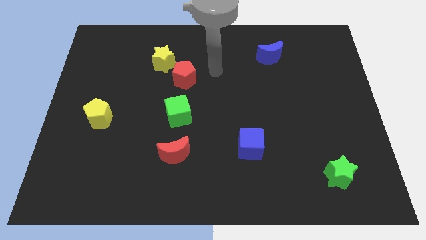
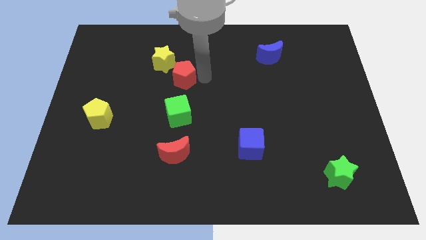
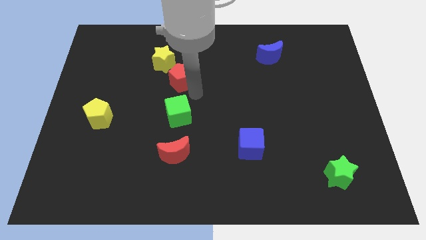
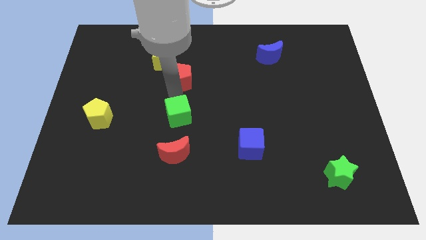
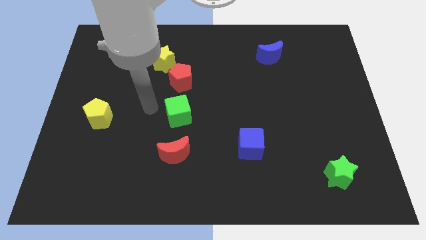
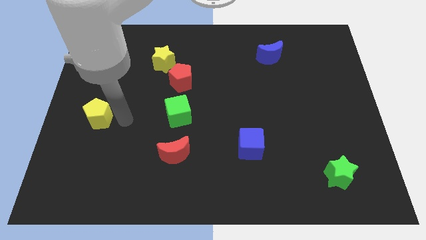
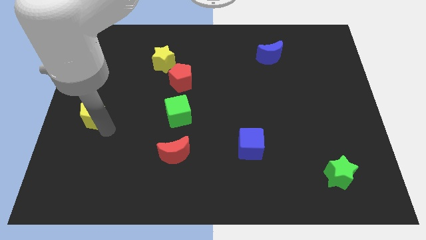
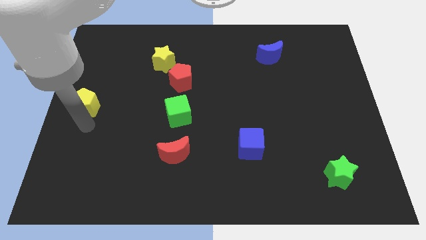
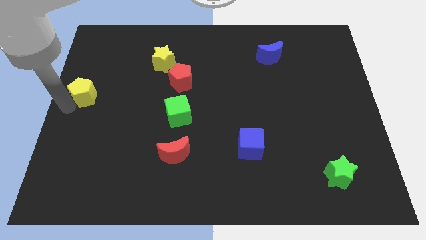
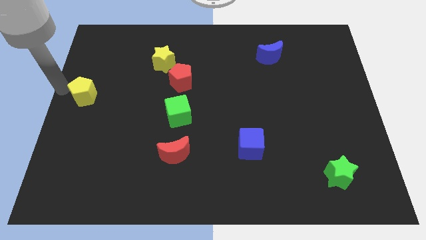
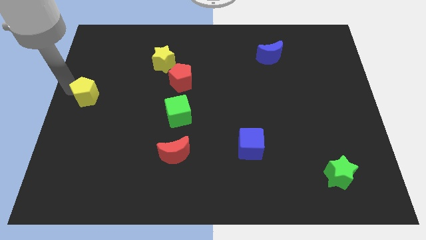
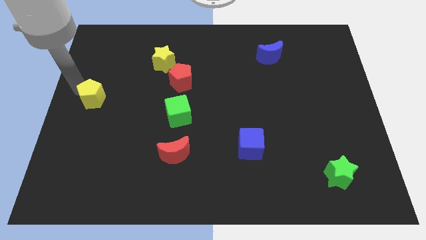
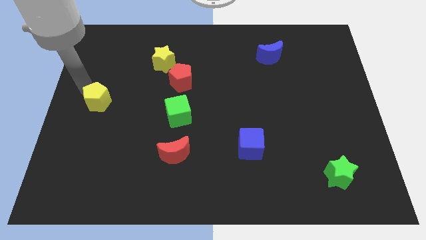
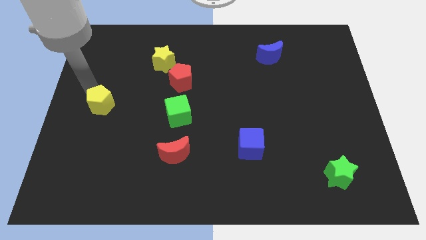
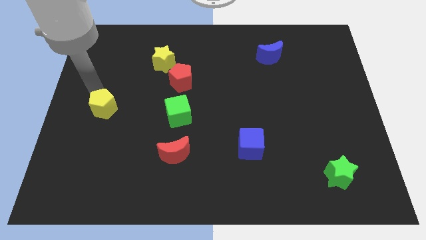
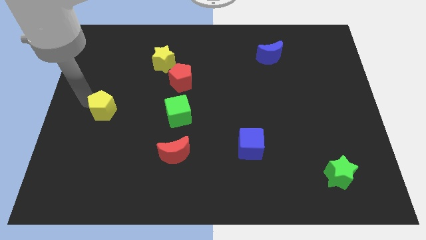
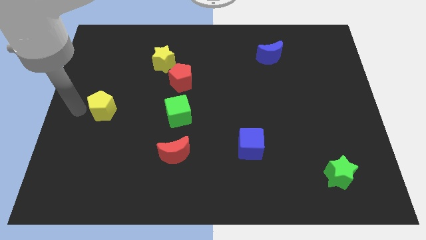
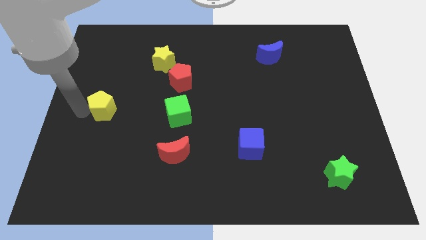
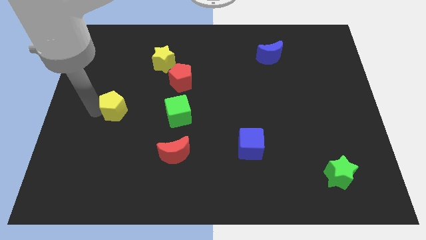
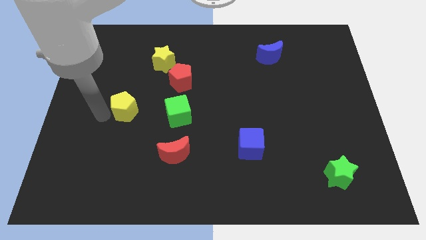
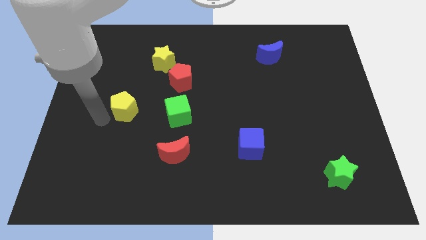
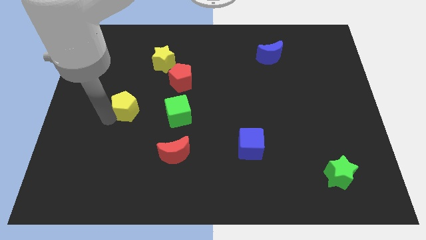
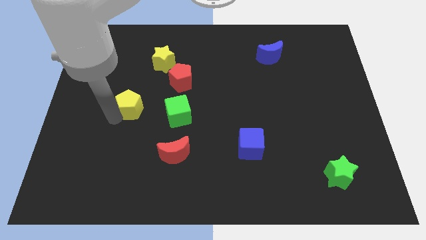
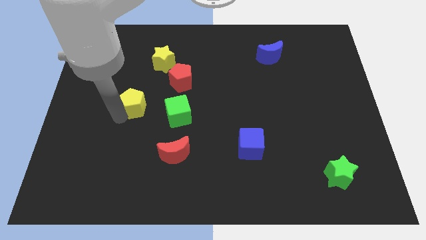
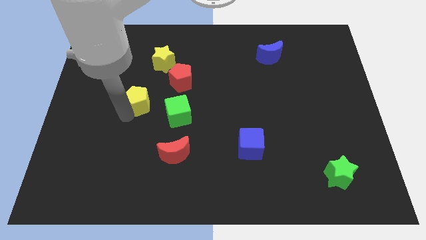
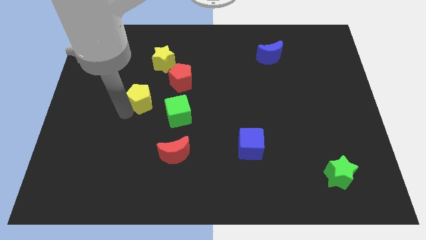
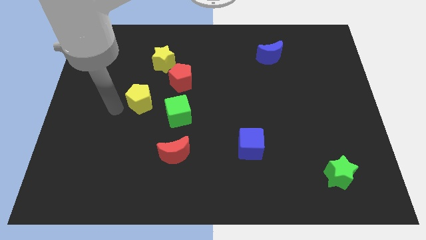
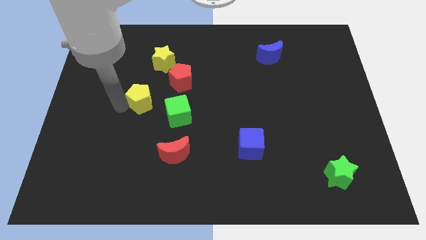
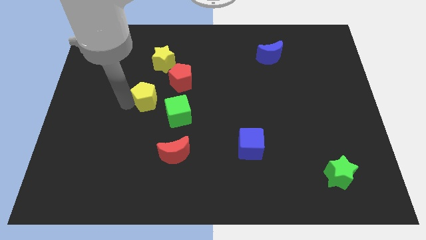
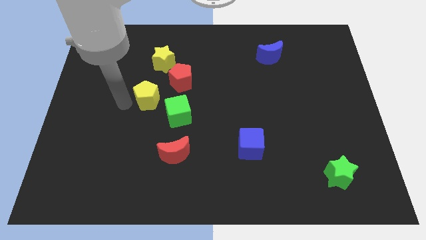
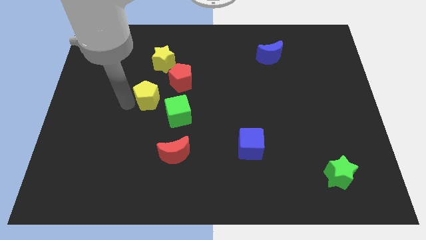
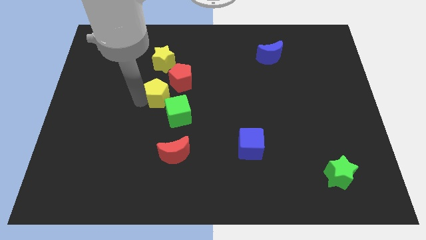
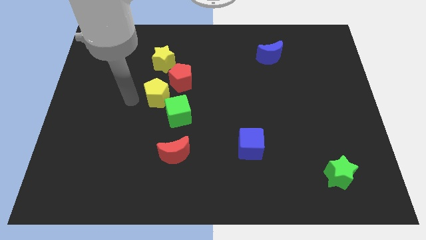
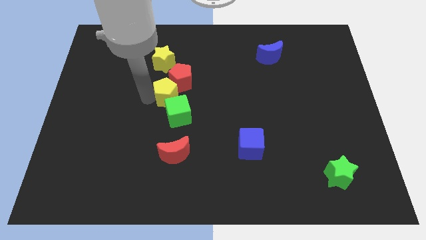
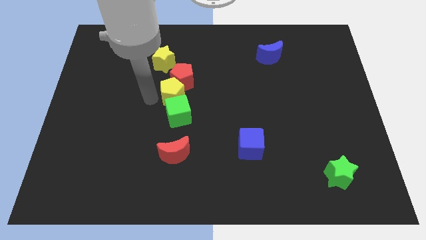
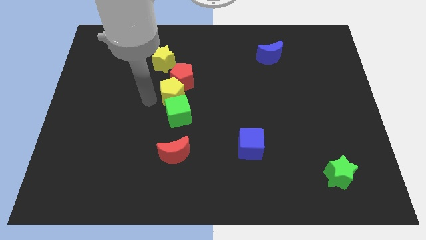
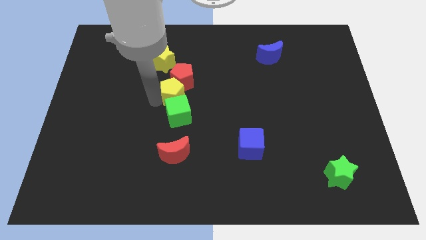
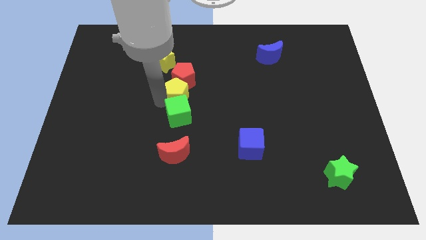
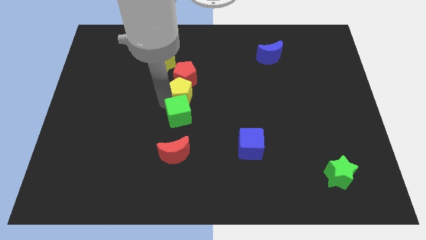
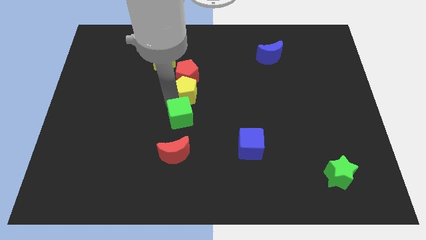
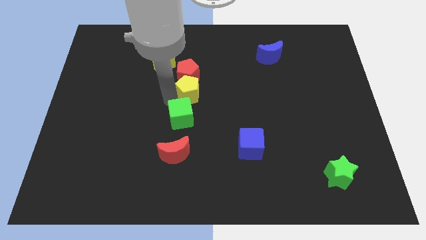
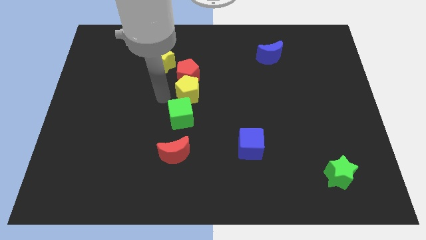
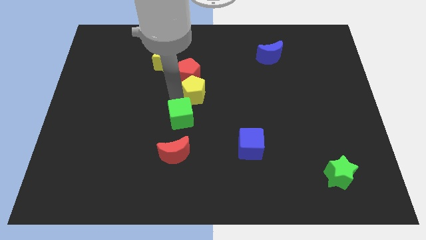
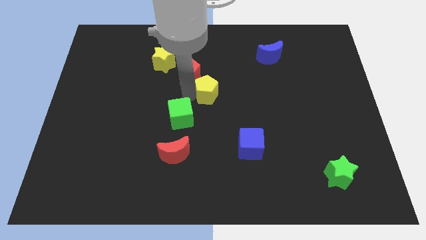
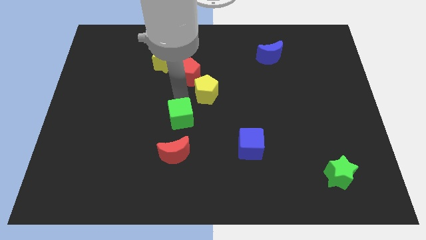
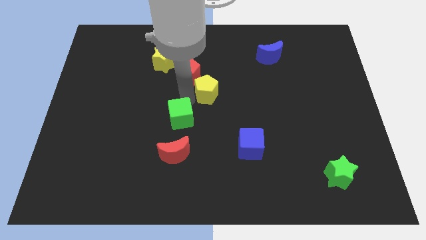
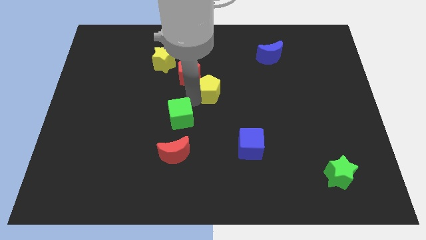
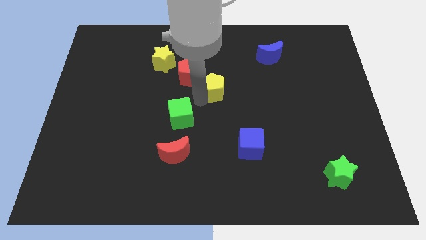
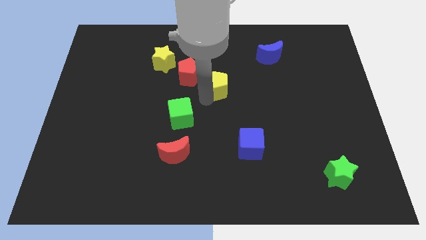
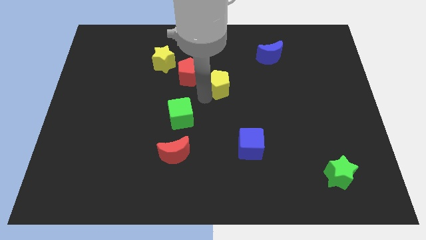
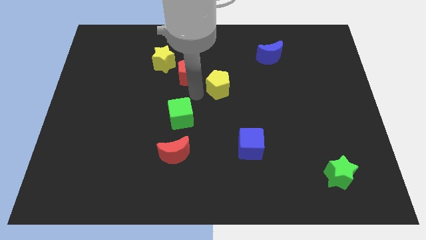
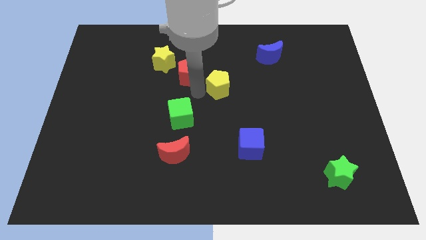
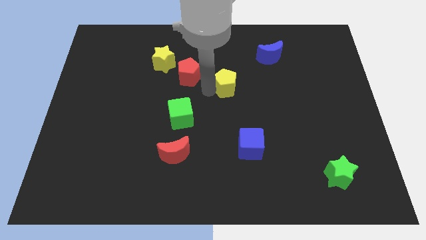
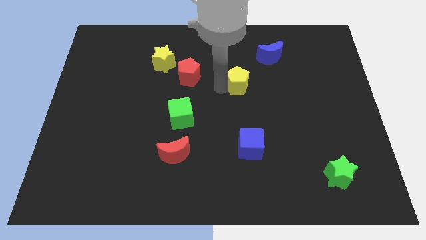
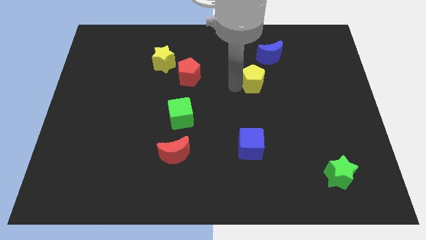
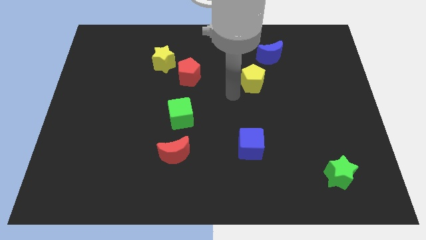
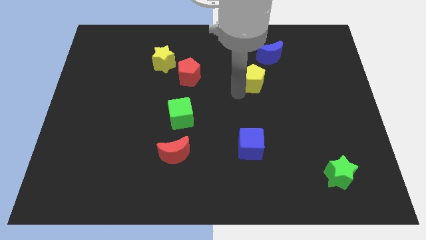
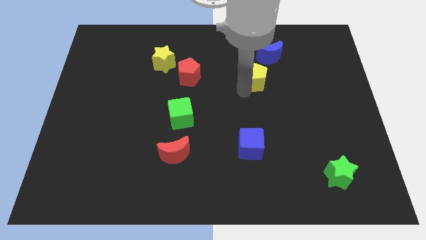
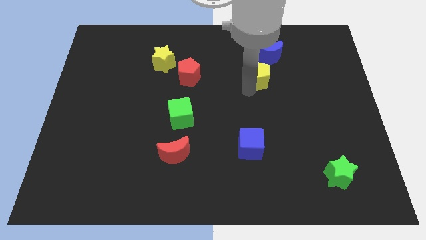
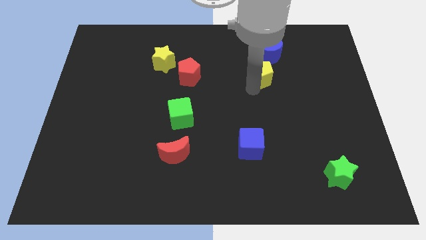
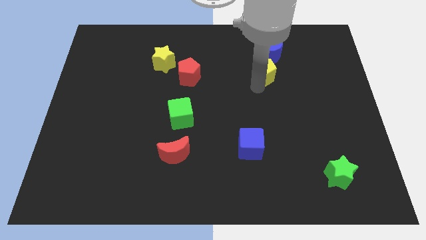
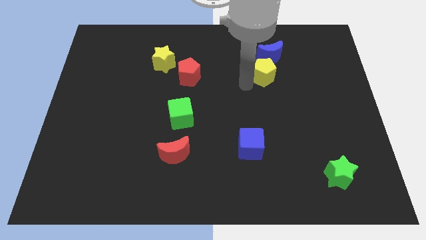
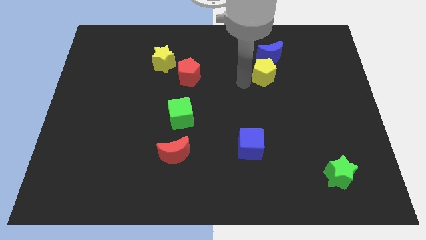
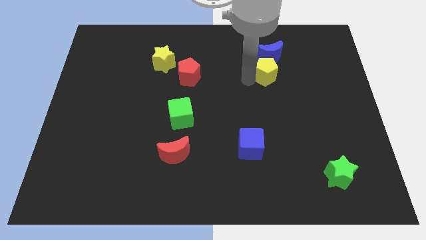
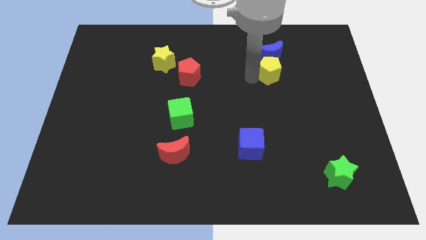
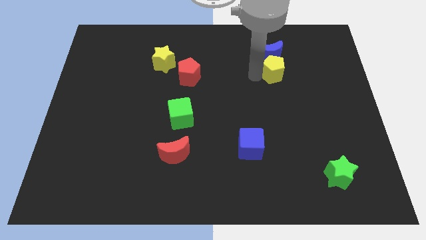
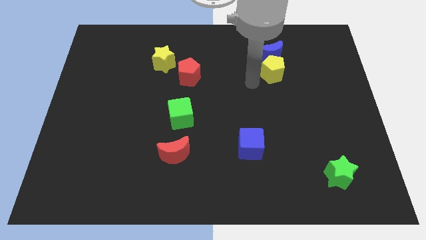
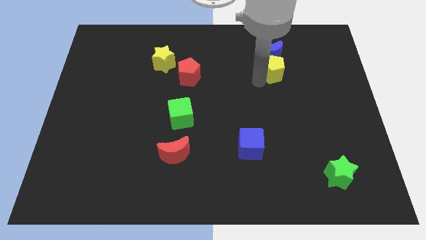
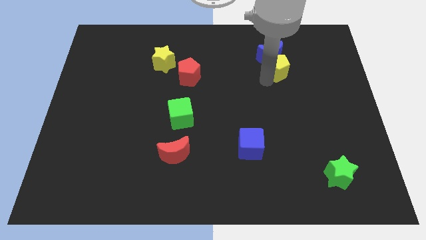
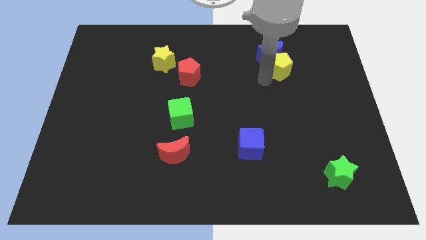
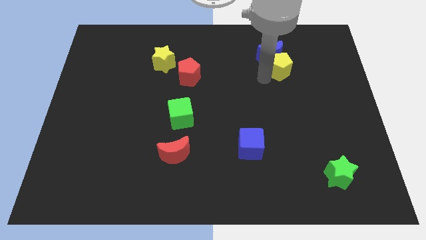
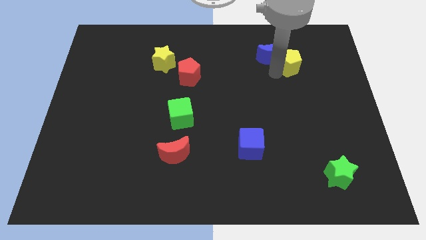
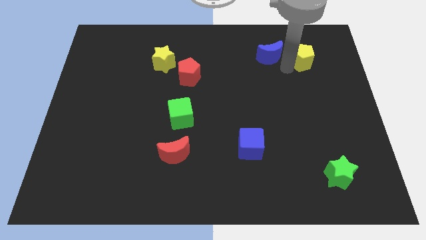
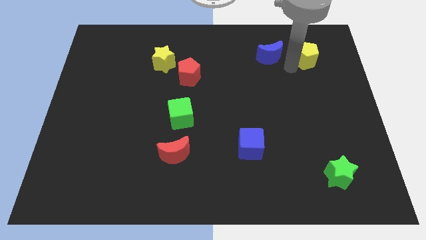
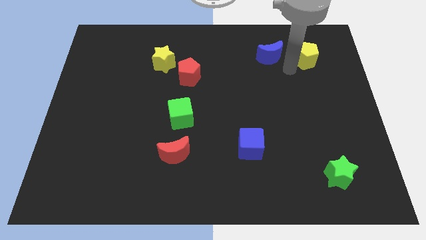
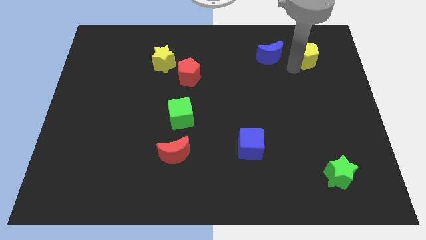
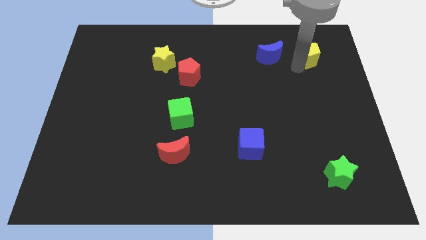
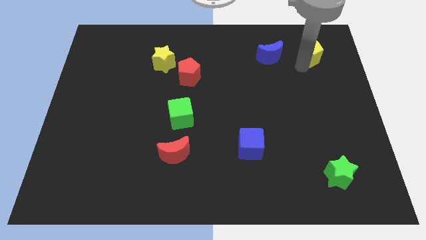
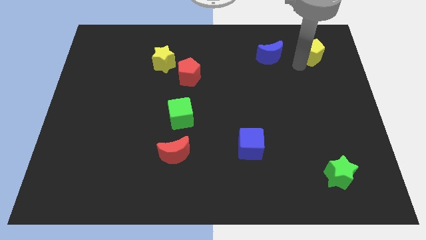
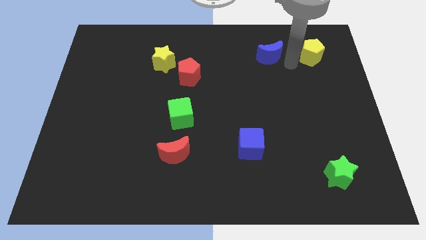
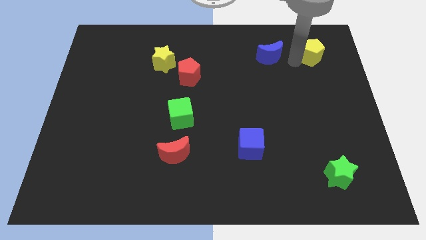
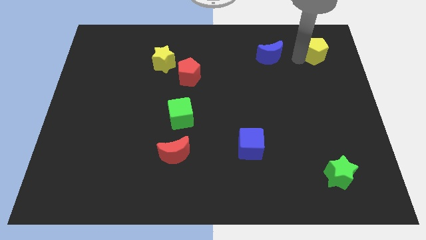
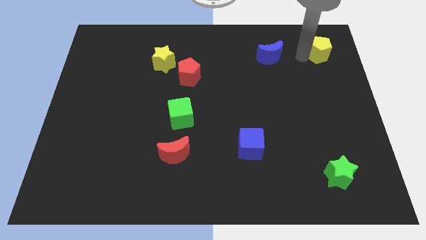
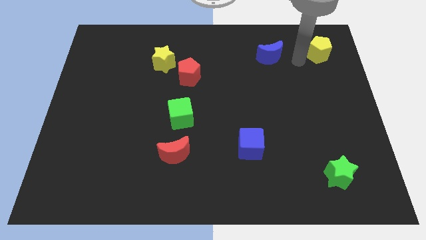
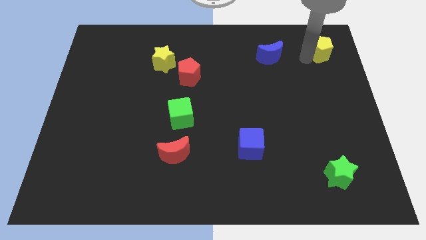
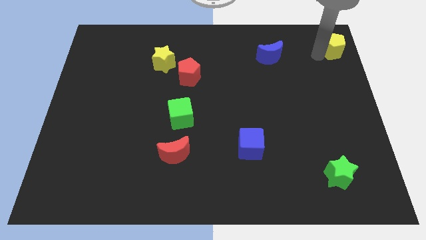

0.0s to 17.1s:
put the yellow pentagon to the top right of the board
